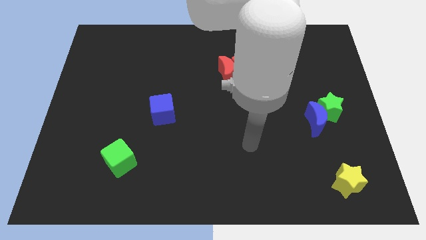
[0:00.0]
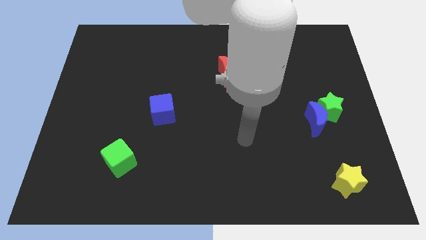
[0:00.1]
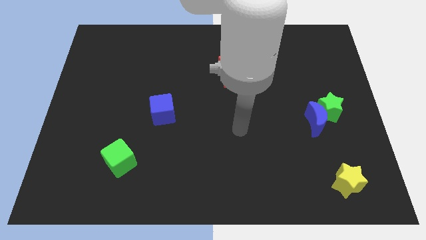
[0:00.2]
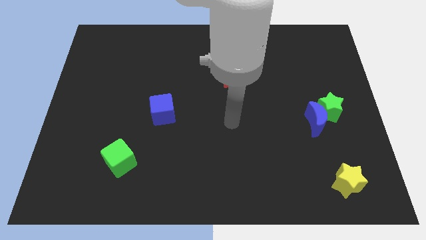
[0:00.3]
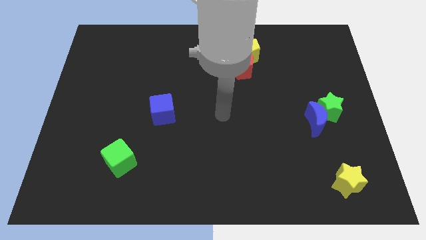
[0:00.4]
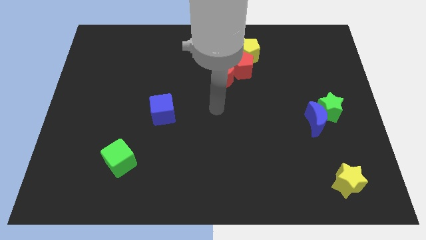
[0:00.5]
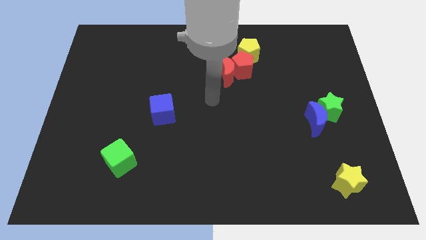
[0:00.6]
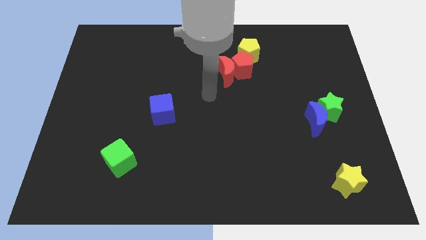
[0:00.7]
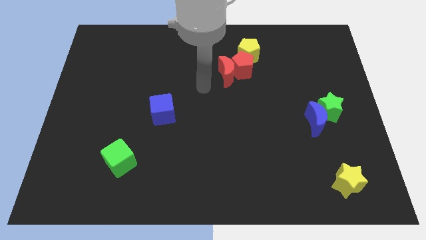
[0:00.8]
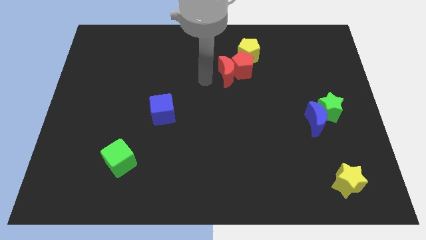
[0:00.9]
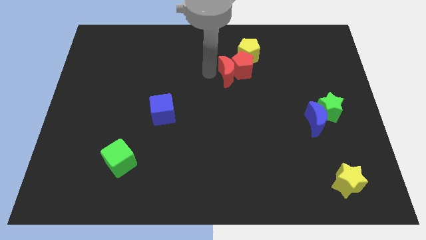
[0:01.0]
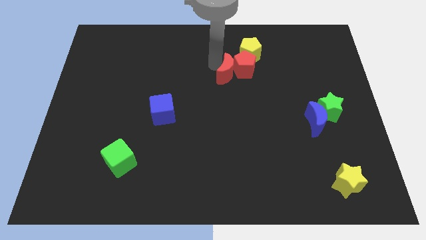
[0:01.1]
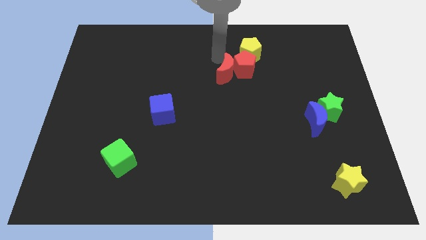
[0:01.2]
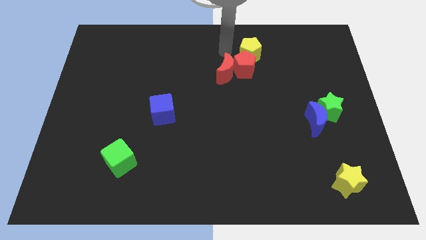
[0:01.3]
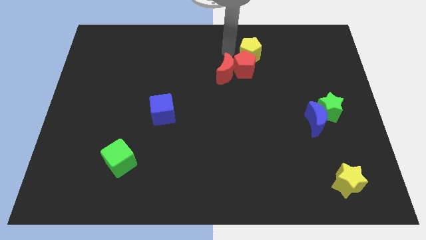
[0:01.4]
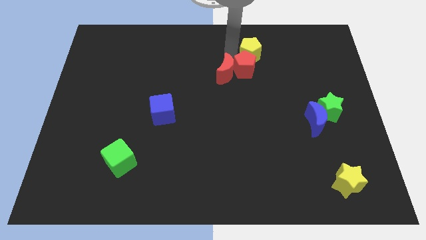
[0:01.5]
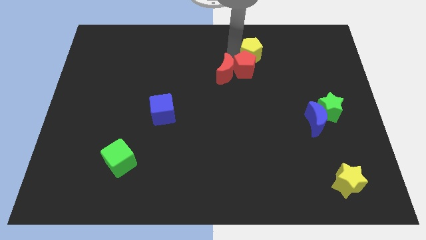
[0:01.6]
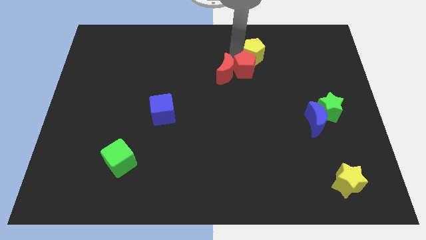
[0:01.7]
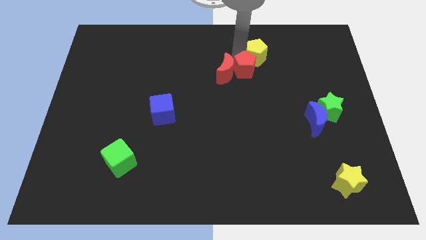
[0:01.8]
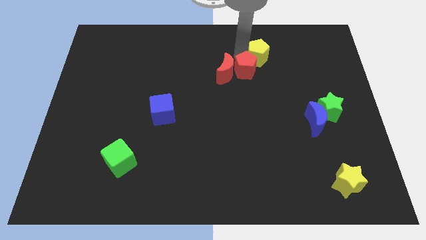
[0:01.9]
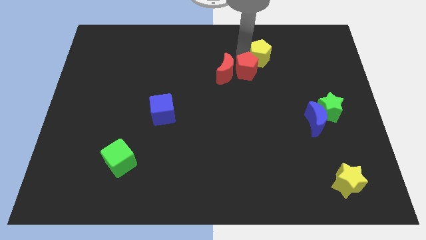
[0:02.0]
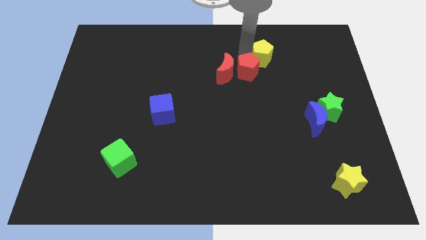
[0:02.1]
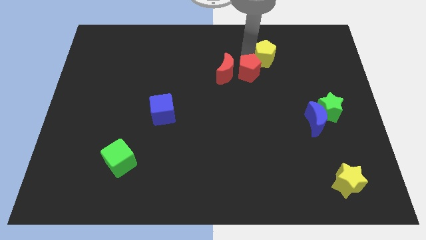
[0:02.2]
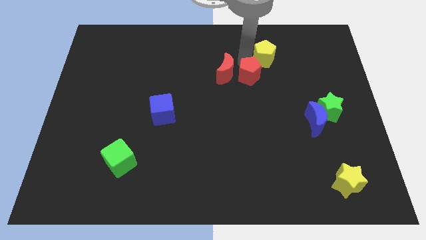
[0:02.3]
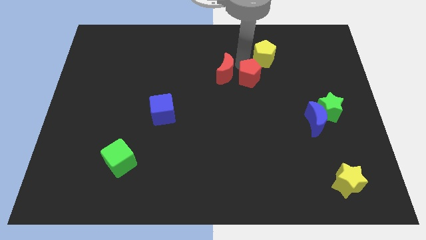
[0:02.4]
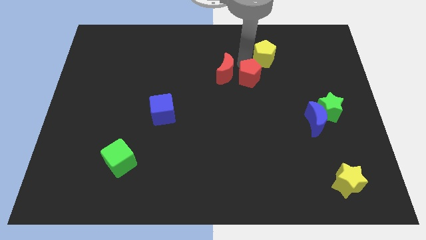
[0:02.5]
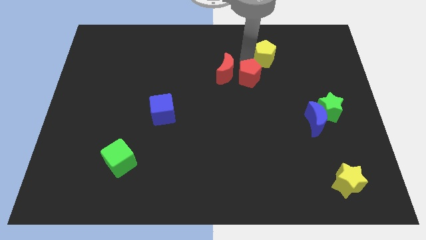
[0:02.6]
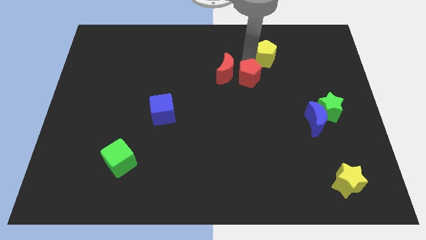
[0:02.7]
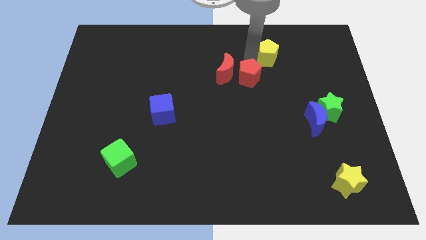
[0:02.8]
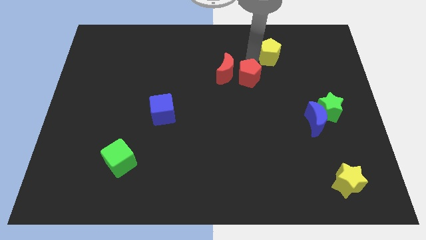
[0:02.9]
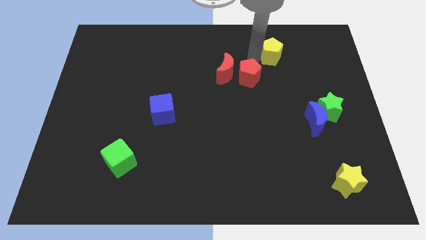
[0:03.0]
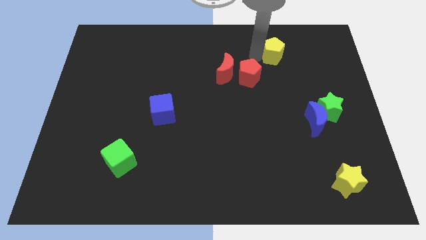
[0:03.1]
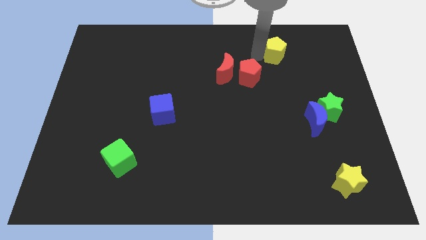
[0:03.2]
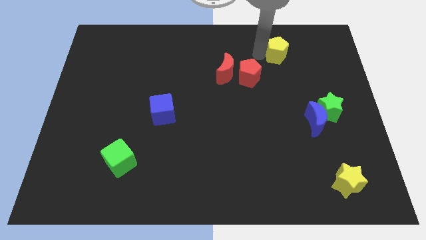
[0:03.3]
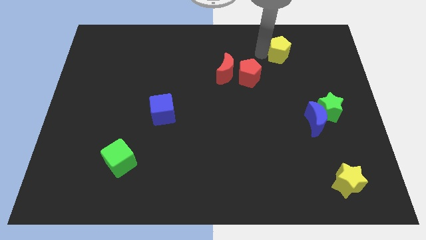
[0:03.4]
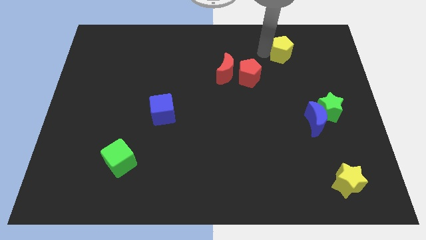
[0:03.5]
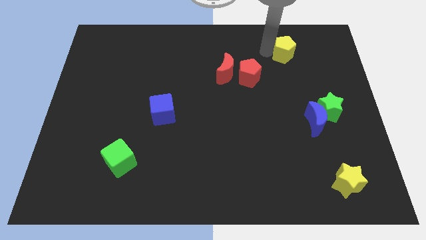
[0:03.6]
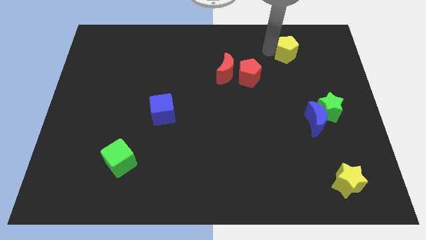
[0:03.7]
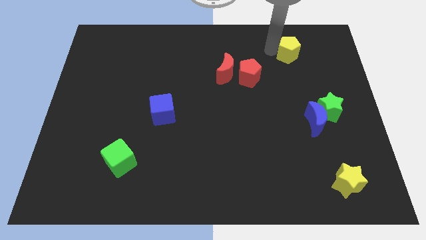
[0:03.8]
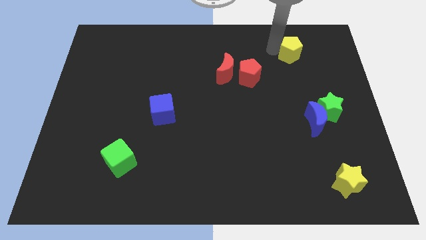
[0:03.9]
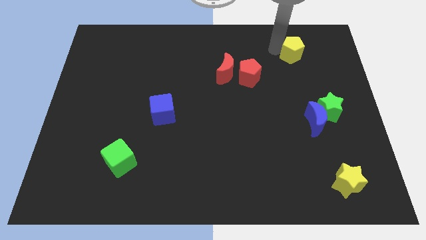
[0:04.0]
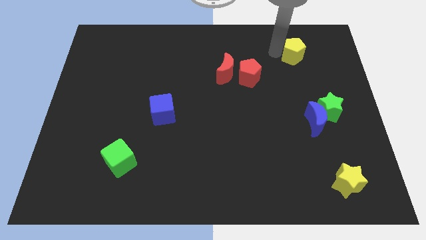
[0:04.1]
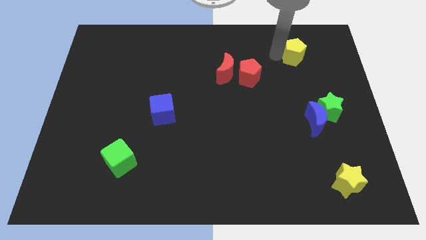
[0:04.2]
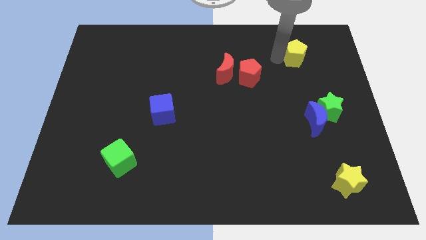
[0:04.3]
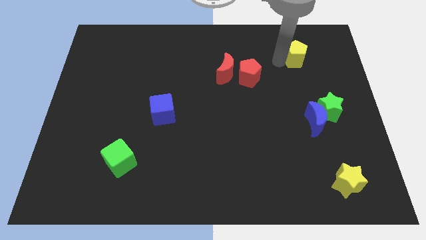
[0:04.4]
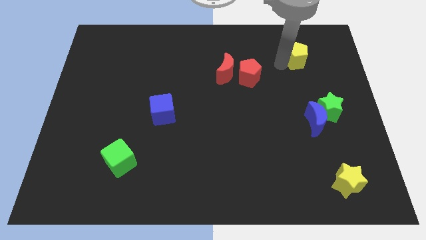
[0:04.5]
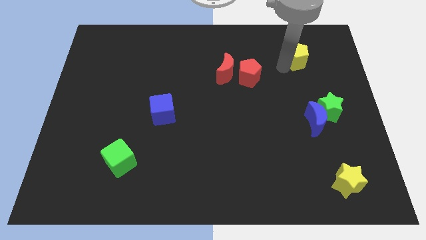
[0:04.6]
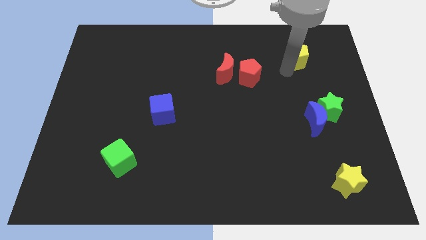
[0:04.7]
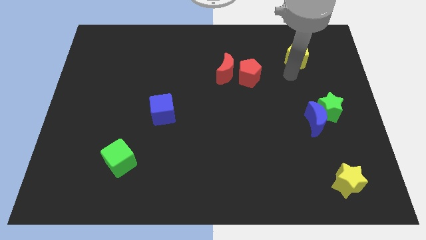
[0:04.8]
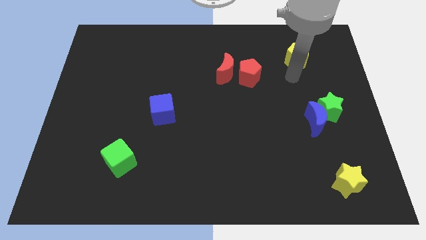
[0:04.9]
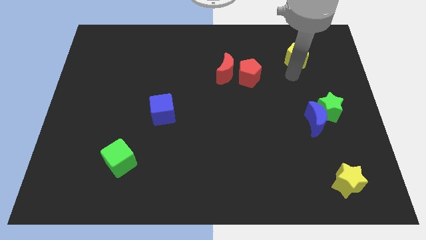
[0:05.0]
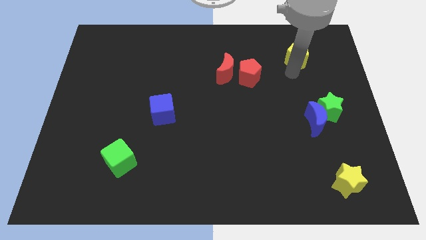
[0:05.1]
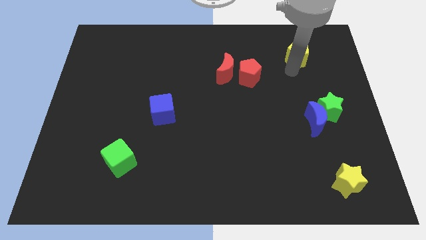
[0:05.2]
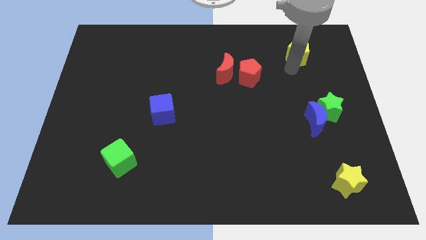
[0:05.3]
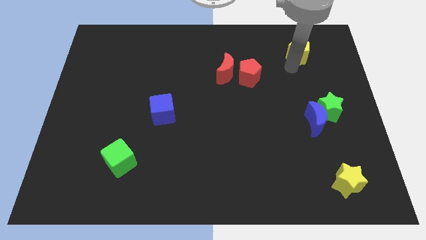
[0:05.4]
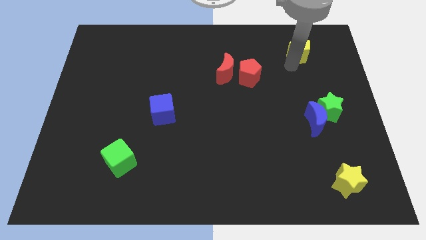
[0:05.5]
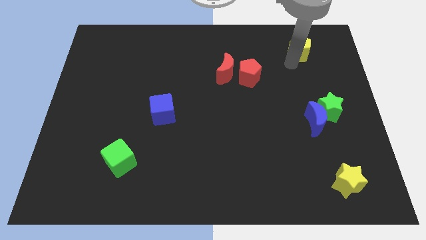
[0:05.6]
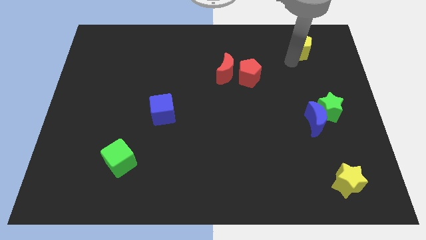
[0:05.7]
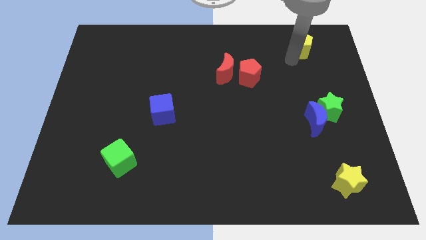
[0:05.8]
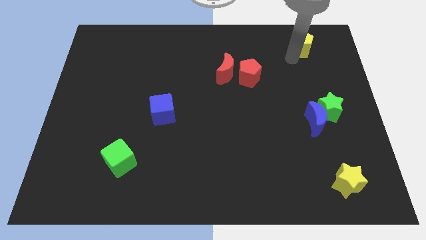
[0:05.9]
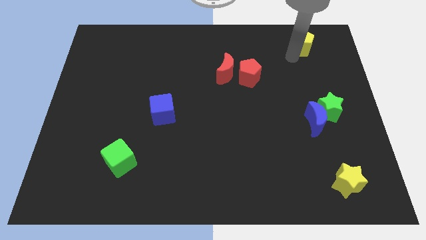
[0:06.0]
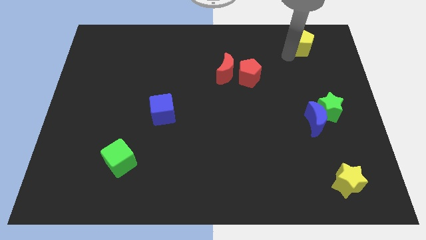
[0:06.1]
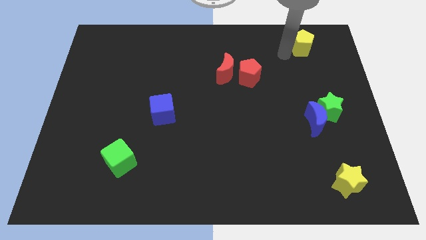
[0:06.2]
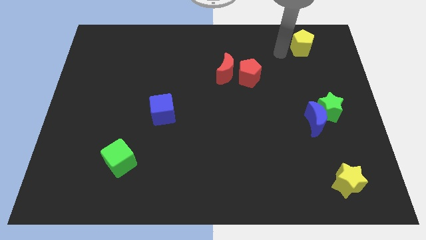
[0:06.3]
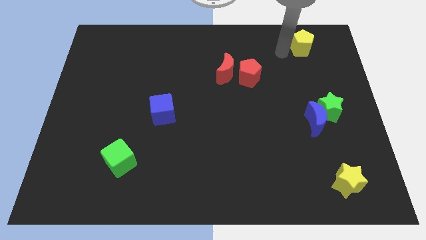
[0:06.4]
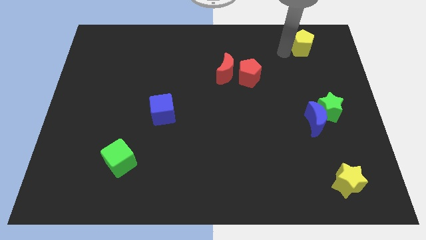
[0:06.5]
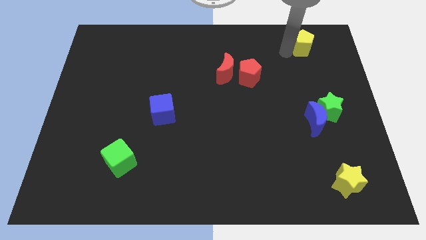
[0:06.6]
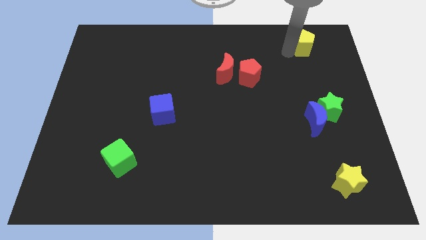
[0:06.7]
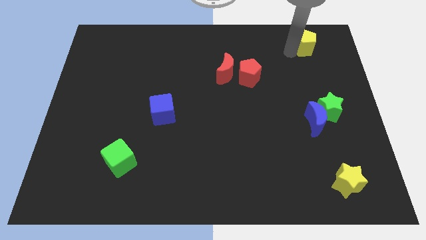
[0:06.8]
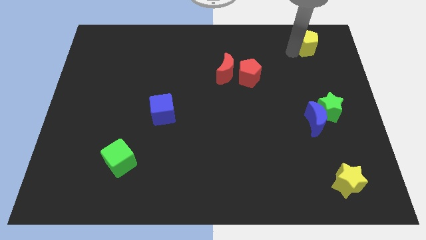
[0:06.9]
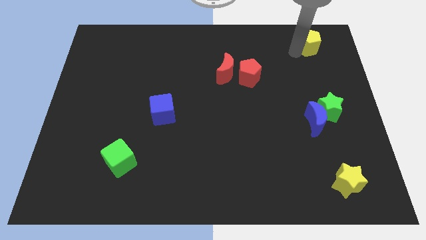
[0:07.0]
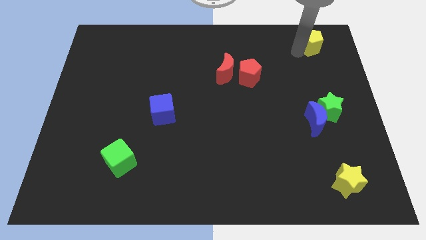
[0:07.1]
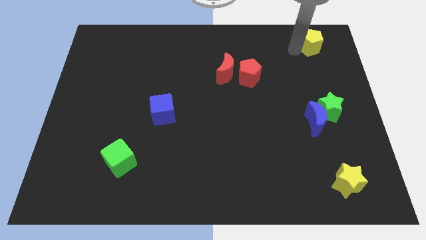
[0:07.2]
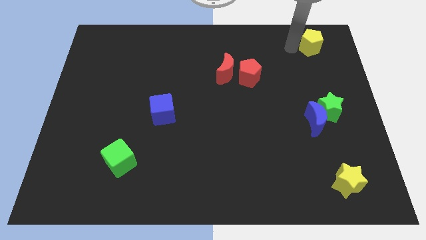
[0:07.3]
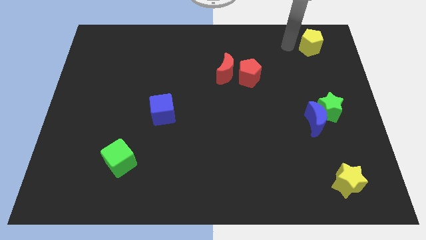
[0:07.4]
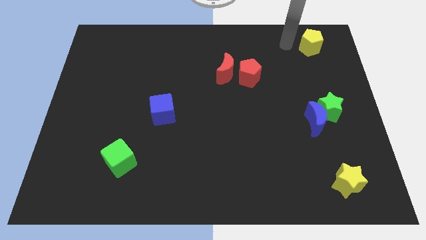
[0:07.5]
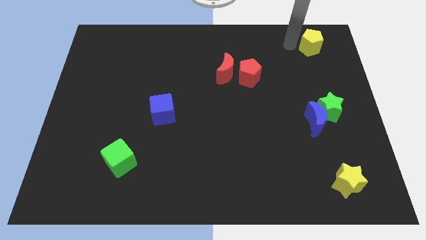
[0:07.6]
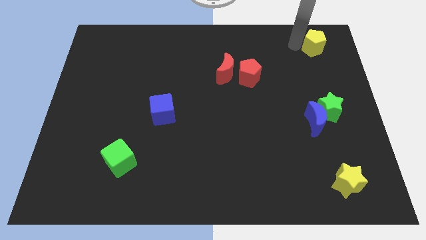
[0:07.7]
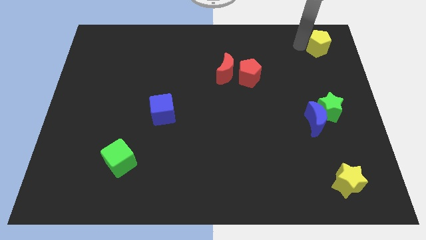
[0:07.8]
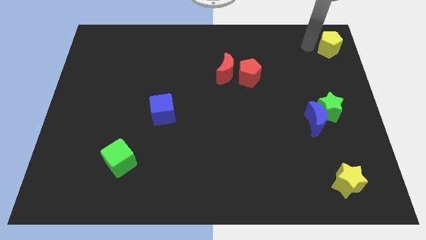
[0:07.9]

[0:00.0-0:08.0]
put the yellow pentagon to the top right

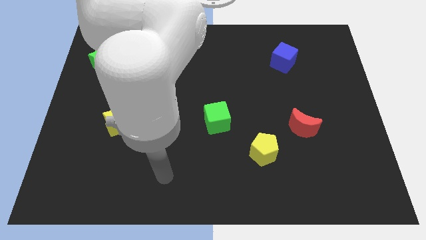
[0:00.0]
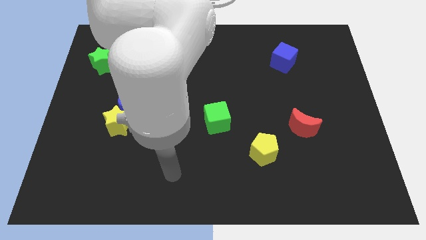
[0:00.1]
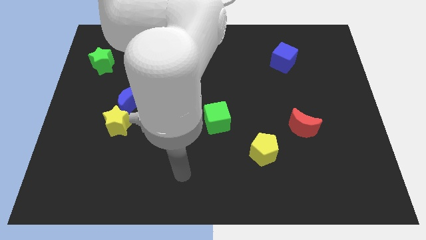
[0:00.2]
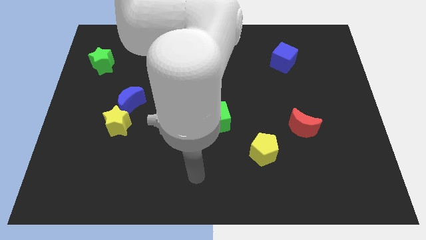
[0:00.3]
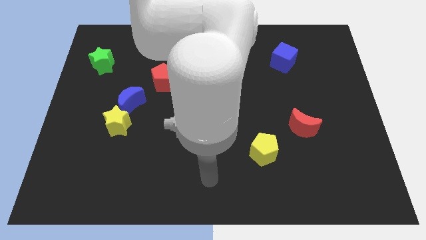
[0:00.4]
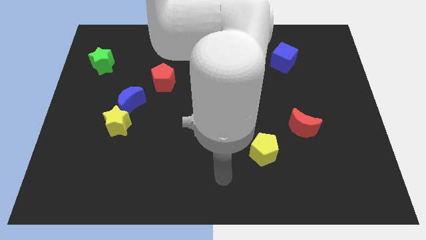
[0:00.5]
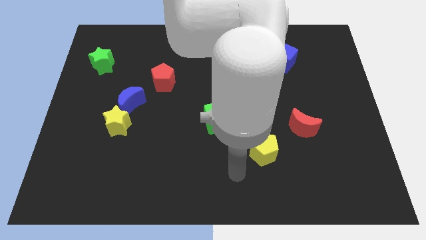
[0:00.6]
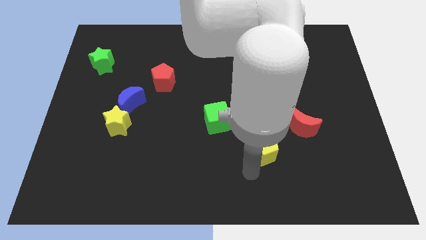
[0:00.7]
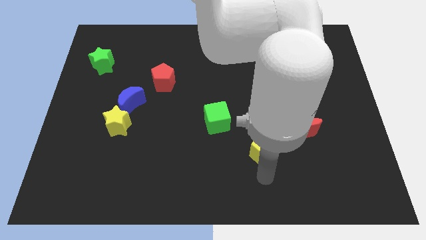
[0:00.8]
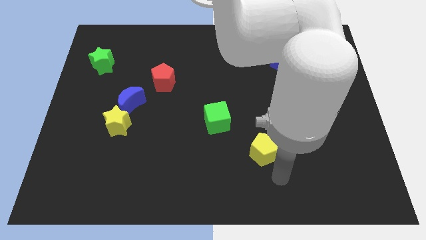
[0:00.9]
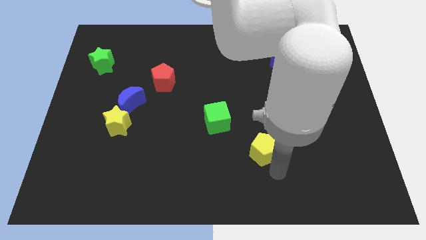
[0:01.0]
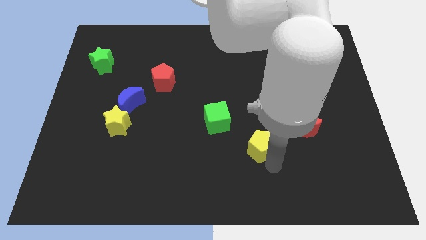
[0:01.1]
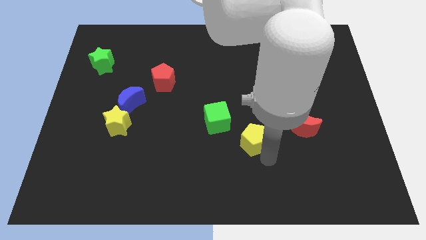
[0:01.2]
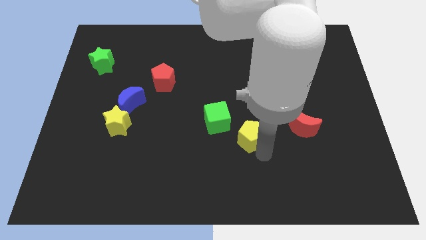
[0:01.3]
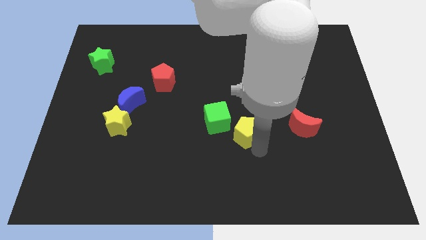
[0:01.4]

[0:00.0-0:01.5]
push the yellow pentagon to the center of the board
